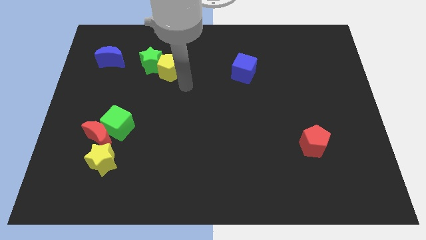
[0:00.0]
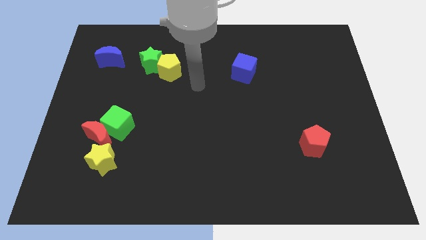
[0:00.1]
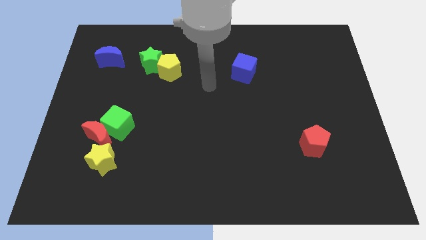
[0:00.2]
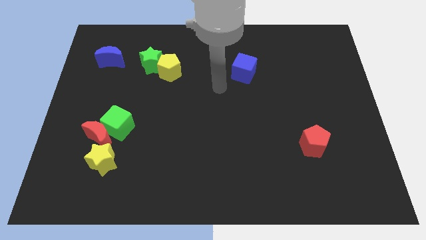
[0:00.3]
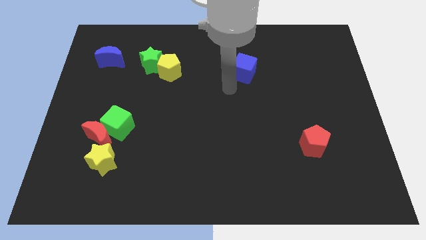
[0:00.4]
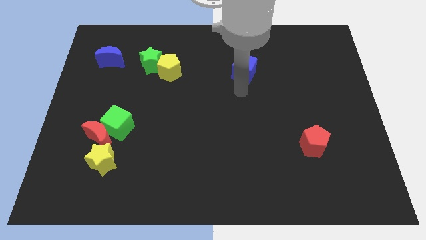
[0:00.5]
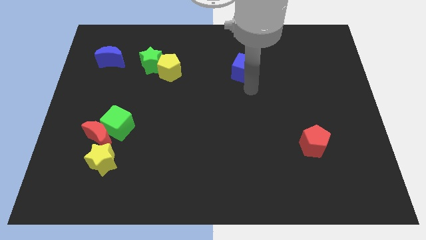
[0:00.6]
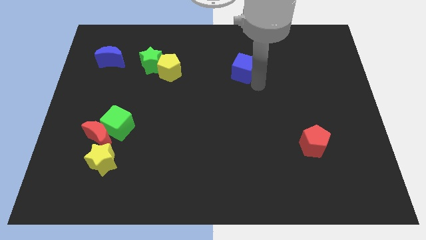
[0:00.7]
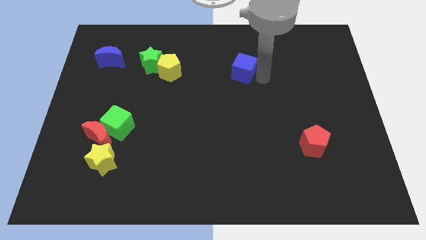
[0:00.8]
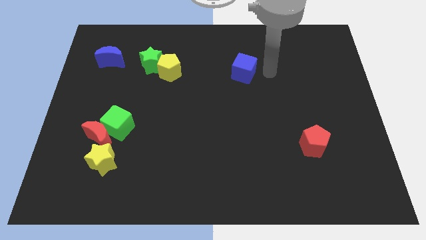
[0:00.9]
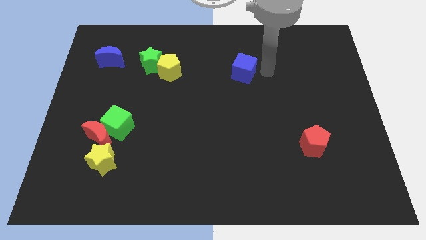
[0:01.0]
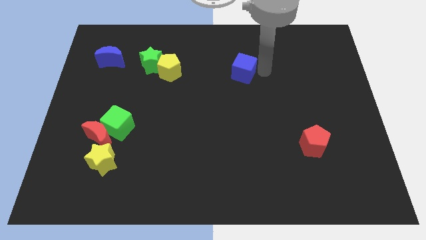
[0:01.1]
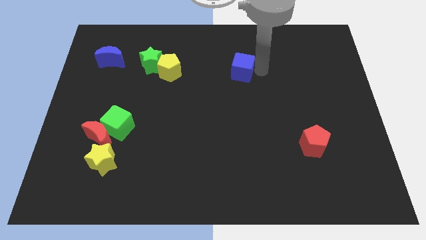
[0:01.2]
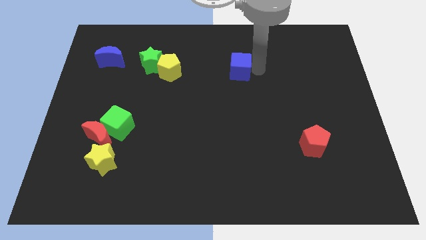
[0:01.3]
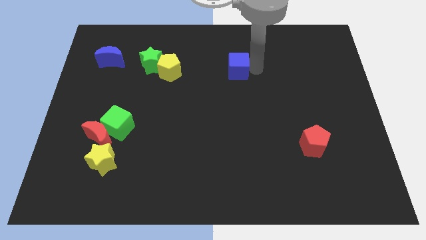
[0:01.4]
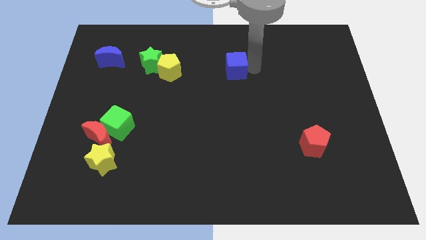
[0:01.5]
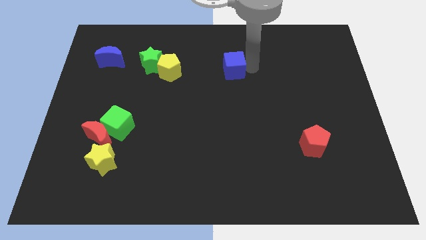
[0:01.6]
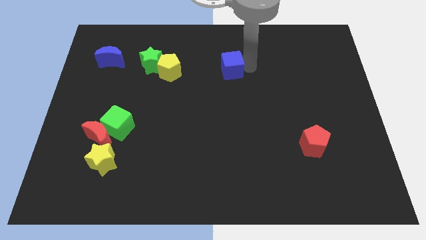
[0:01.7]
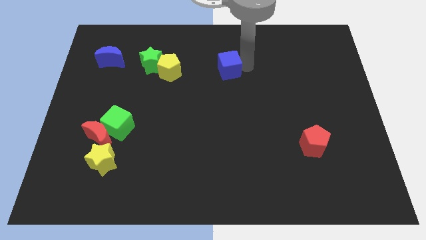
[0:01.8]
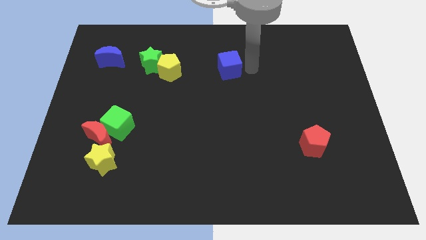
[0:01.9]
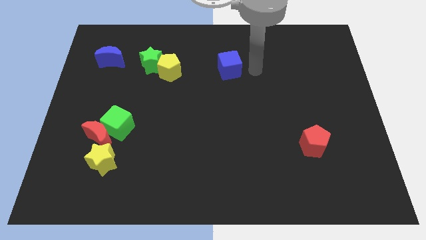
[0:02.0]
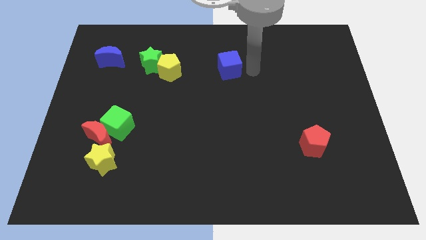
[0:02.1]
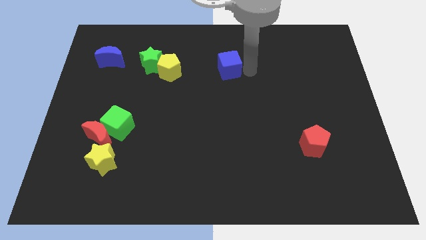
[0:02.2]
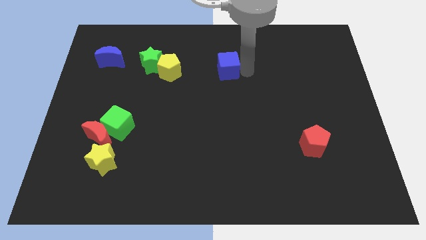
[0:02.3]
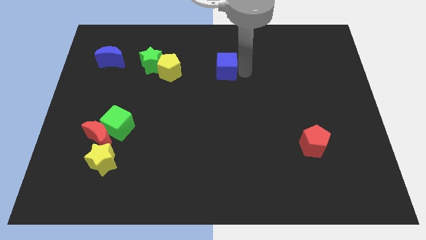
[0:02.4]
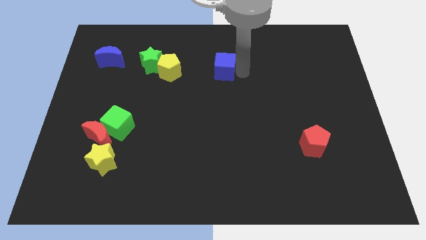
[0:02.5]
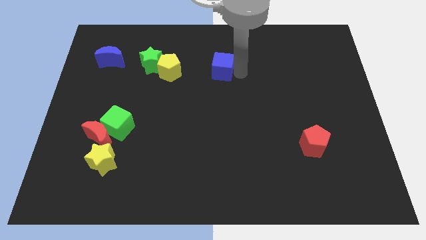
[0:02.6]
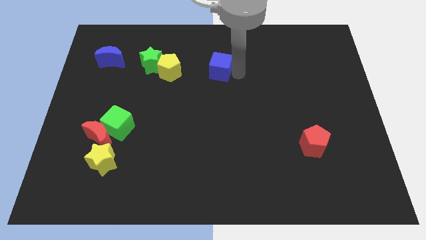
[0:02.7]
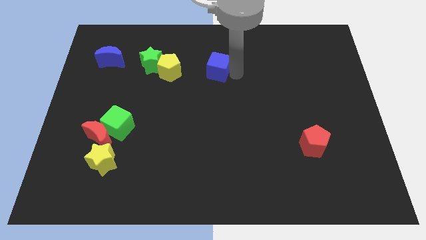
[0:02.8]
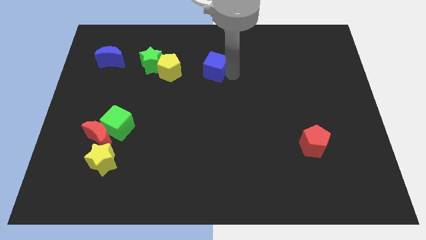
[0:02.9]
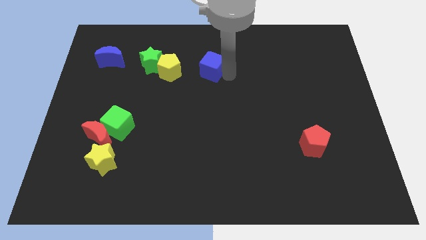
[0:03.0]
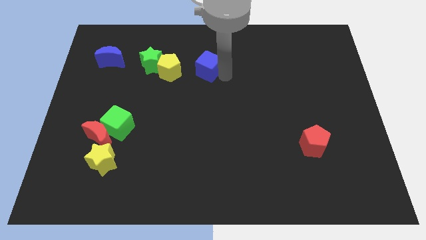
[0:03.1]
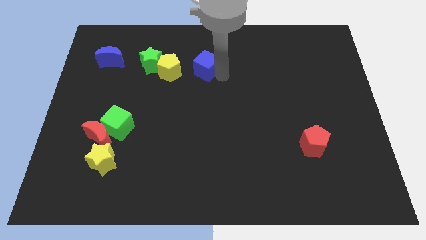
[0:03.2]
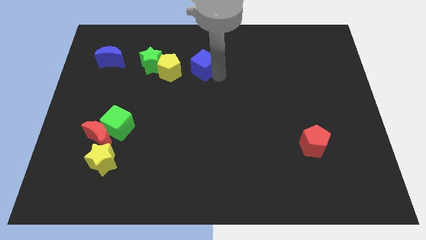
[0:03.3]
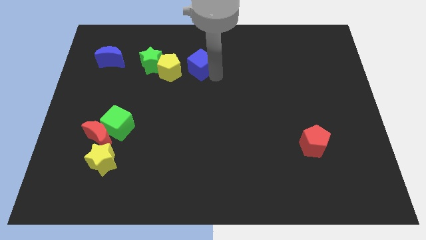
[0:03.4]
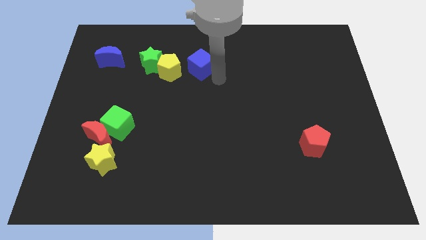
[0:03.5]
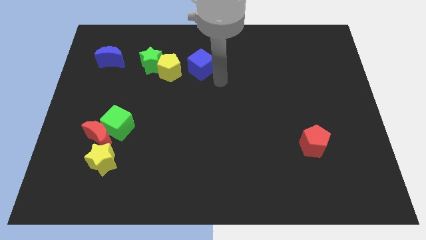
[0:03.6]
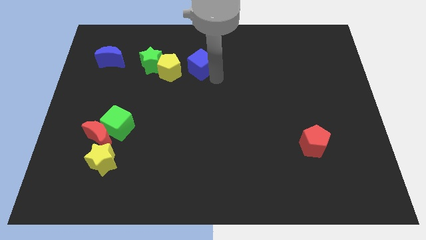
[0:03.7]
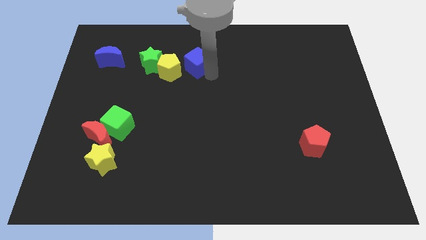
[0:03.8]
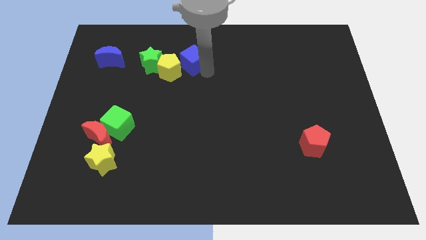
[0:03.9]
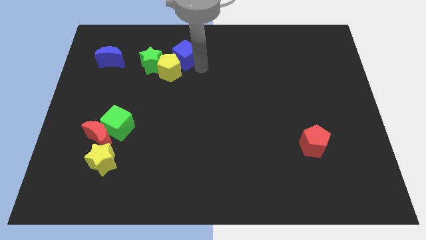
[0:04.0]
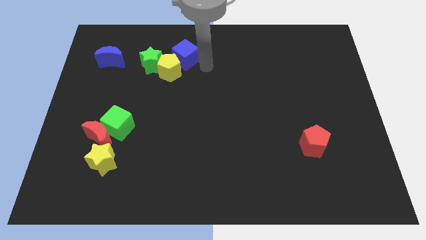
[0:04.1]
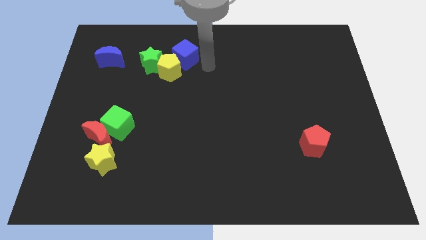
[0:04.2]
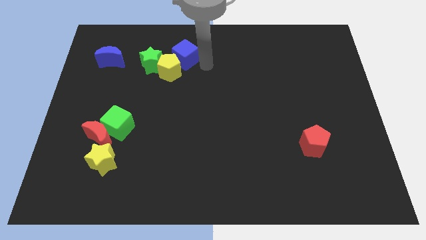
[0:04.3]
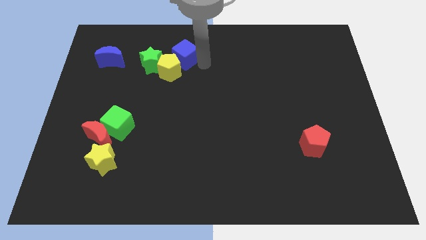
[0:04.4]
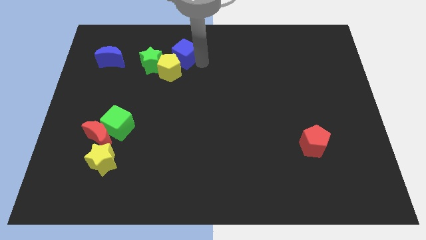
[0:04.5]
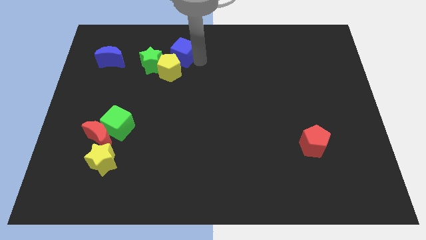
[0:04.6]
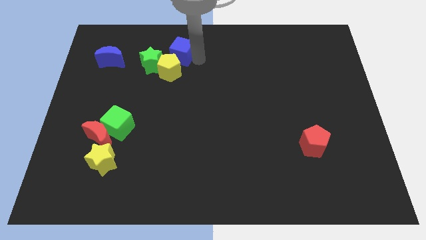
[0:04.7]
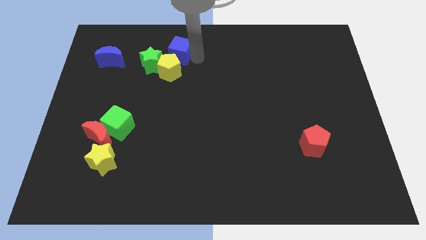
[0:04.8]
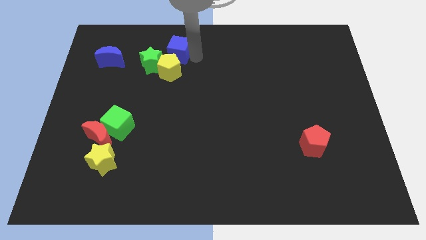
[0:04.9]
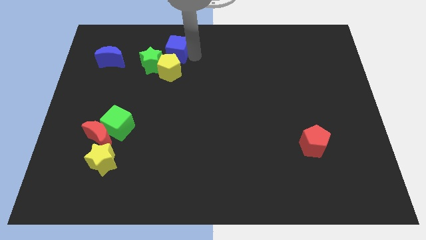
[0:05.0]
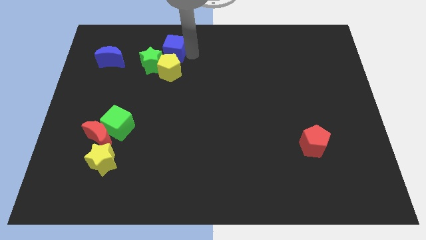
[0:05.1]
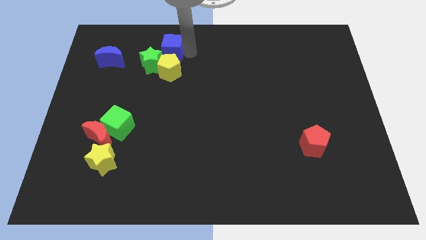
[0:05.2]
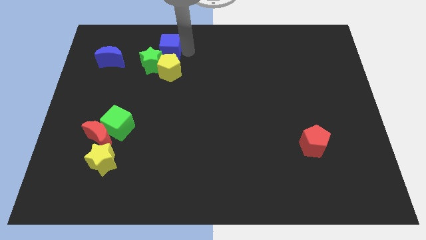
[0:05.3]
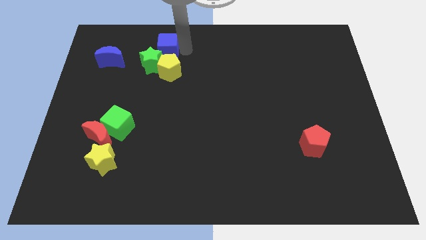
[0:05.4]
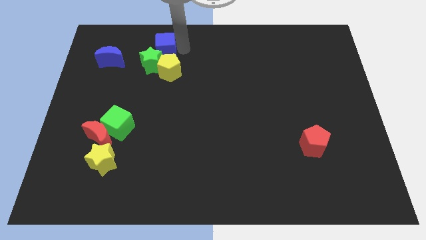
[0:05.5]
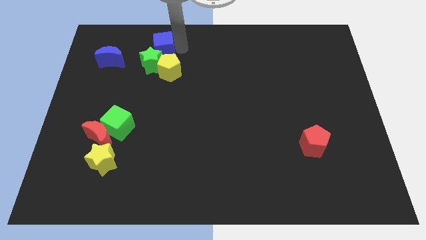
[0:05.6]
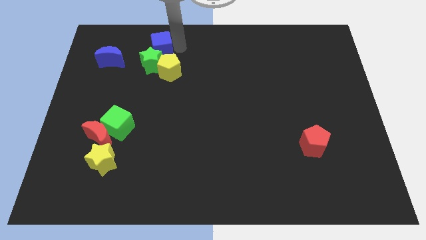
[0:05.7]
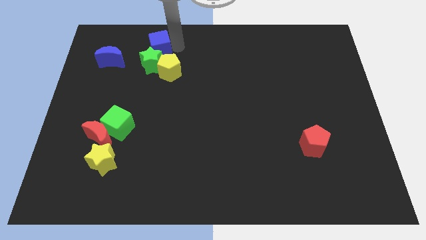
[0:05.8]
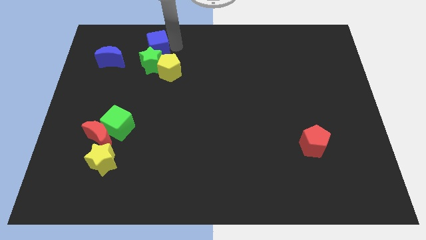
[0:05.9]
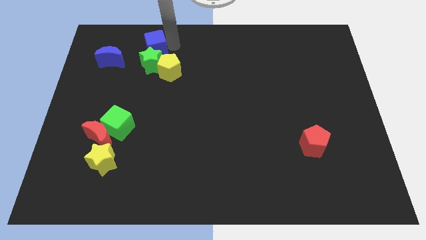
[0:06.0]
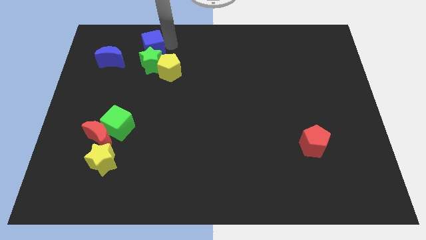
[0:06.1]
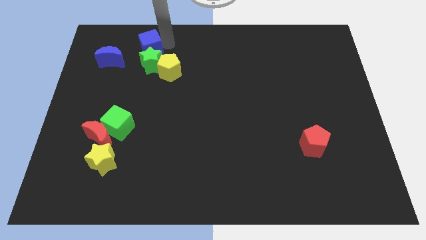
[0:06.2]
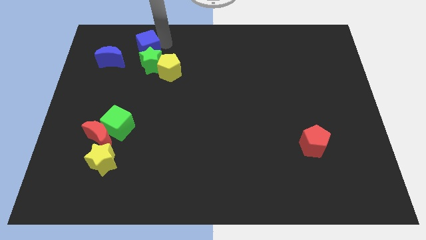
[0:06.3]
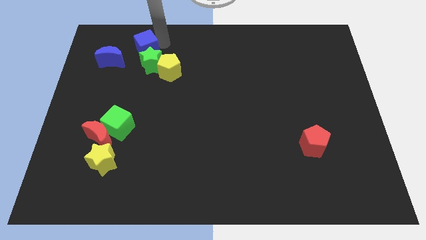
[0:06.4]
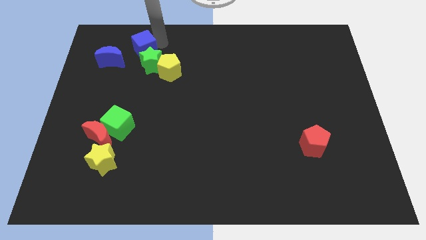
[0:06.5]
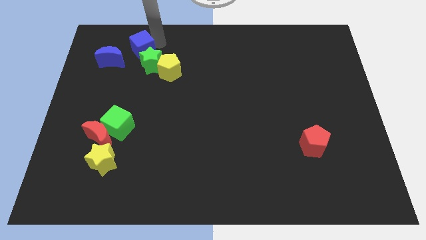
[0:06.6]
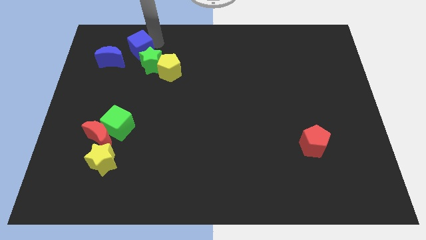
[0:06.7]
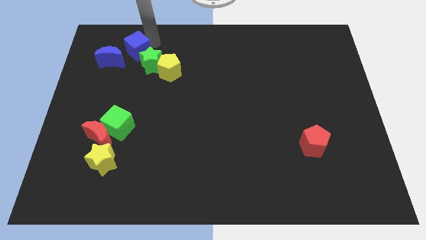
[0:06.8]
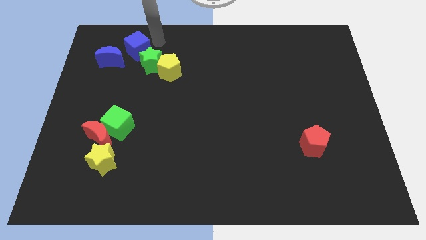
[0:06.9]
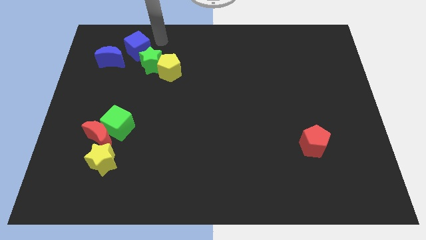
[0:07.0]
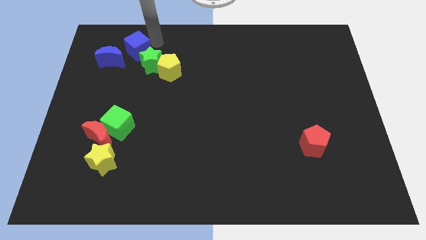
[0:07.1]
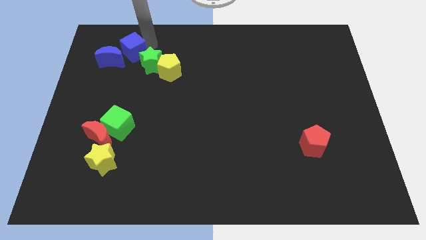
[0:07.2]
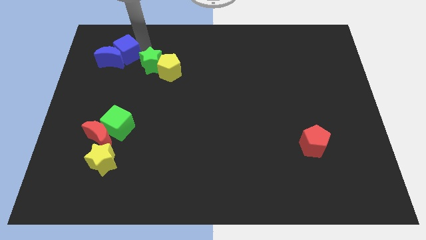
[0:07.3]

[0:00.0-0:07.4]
move the blue cube close to the blue moon
